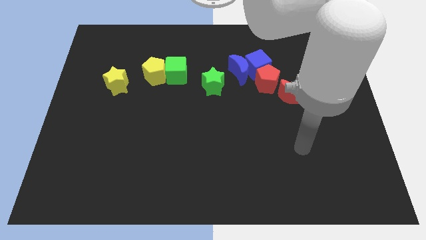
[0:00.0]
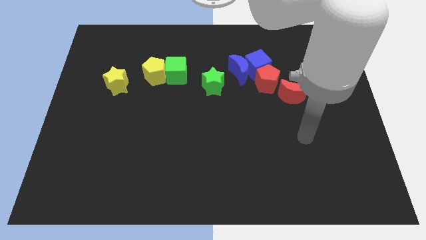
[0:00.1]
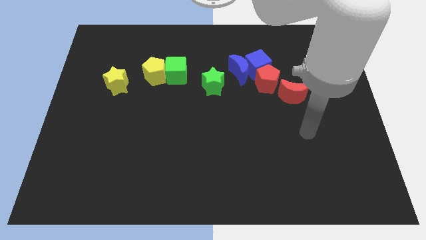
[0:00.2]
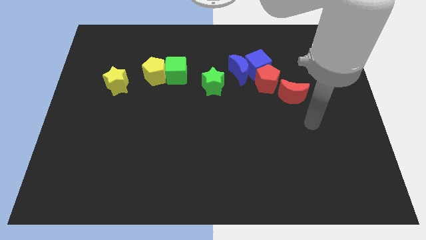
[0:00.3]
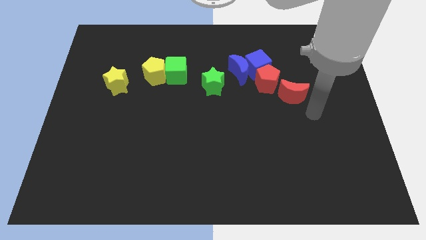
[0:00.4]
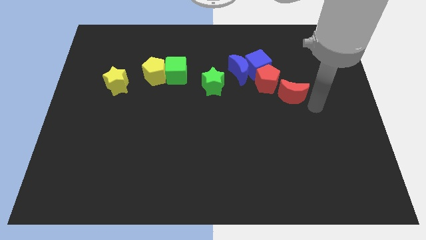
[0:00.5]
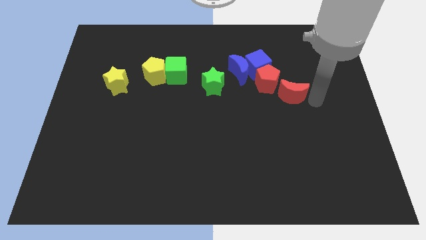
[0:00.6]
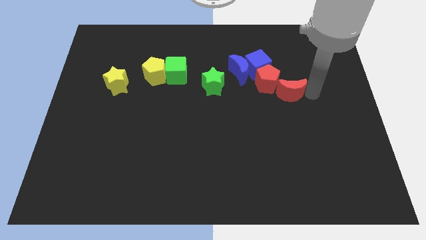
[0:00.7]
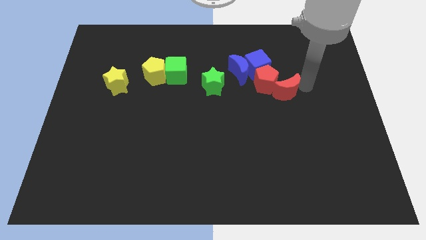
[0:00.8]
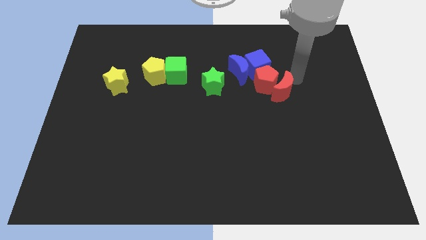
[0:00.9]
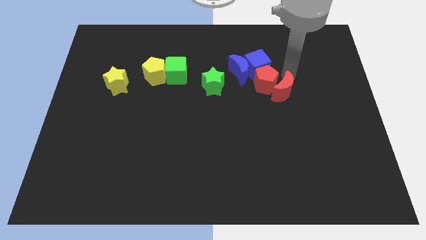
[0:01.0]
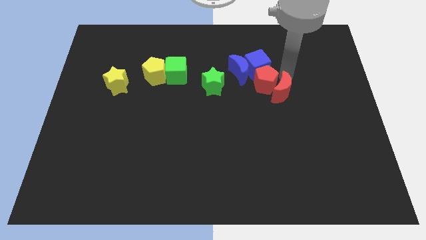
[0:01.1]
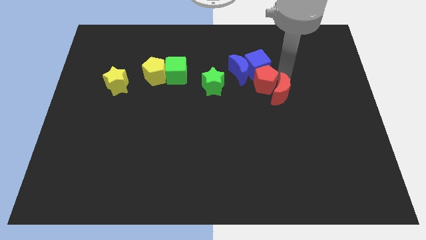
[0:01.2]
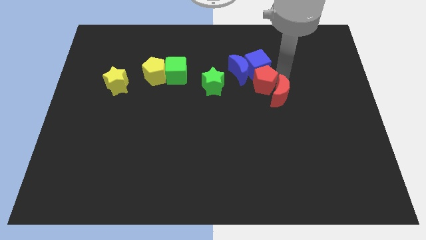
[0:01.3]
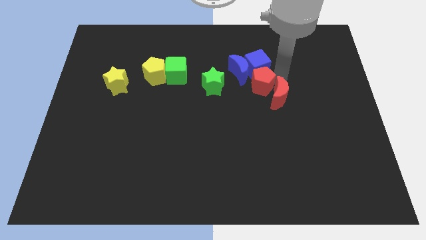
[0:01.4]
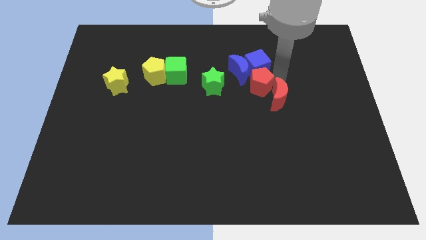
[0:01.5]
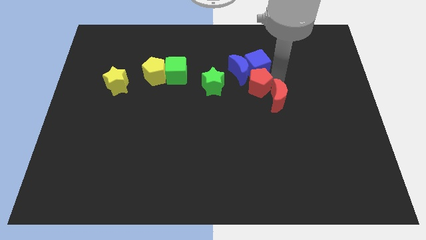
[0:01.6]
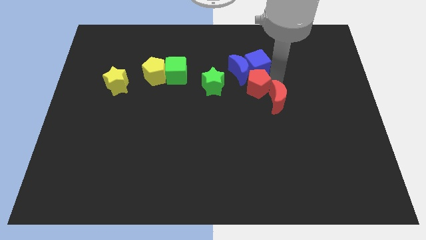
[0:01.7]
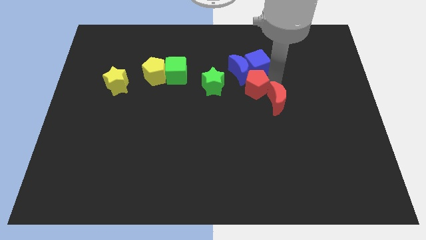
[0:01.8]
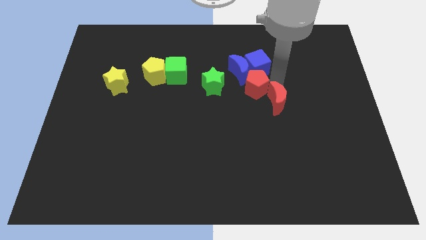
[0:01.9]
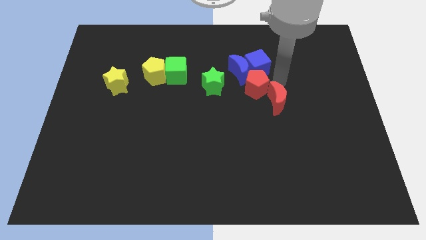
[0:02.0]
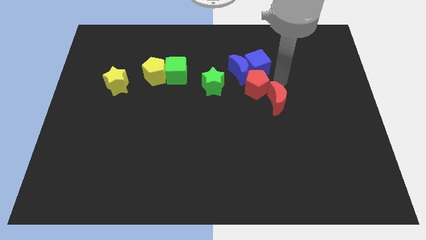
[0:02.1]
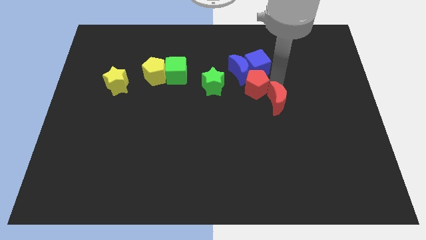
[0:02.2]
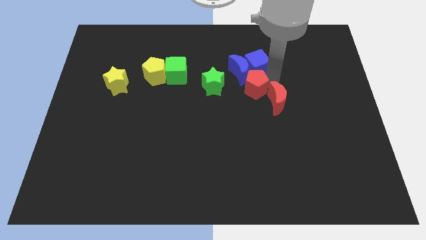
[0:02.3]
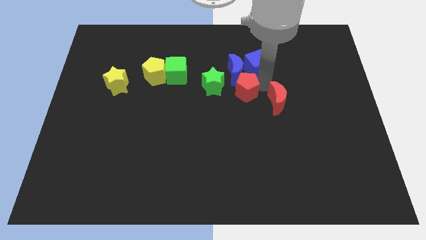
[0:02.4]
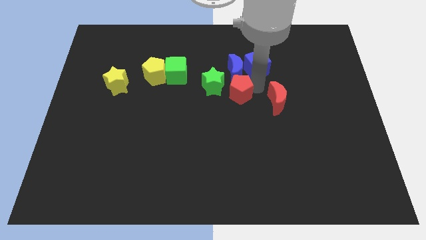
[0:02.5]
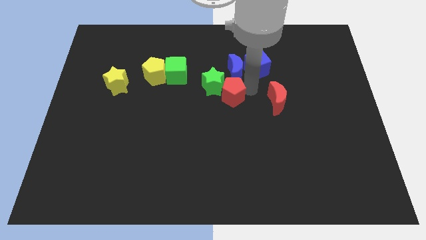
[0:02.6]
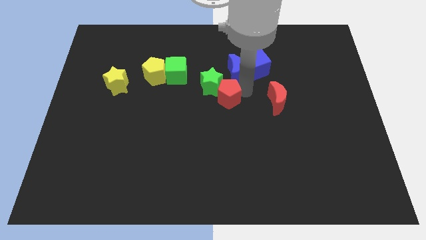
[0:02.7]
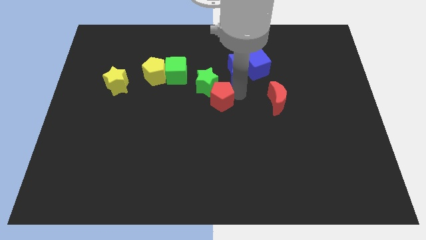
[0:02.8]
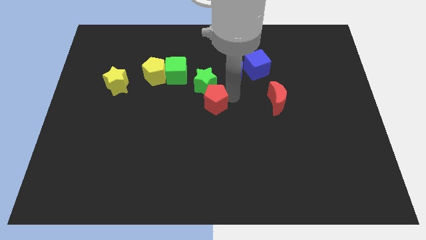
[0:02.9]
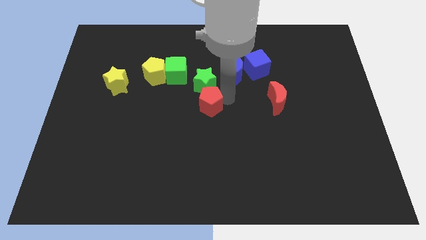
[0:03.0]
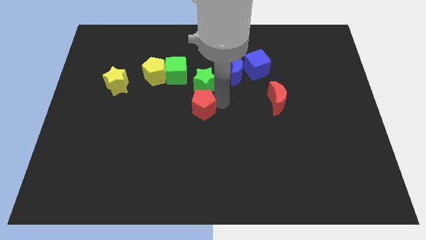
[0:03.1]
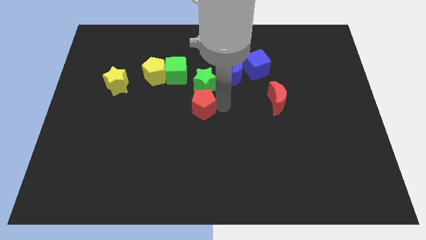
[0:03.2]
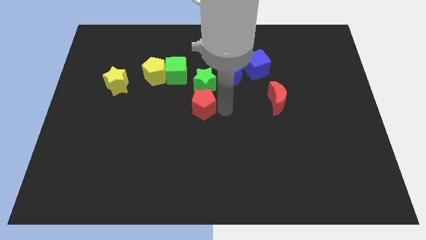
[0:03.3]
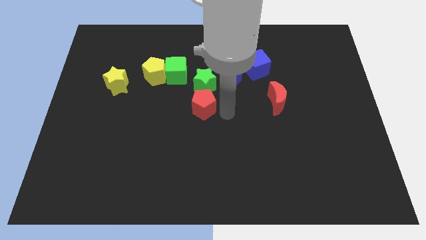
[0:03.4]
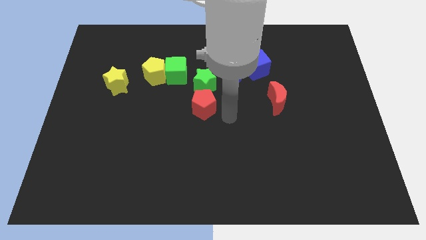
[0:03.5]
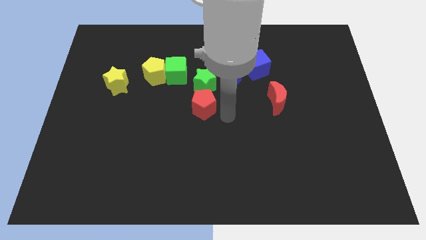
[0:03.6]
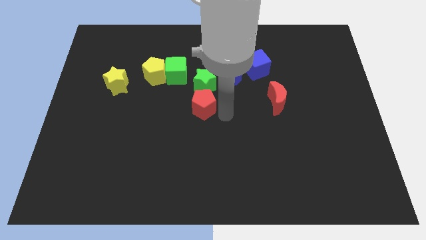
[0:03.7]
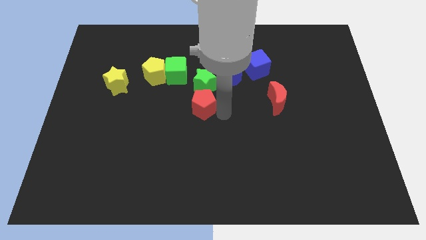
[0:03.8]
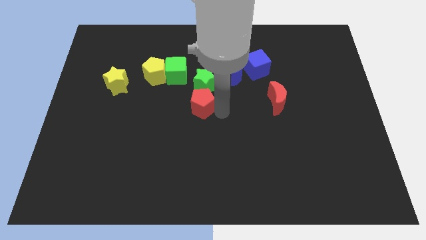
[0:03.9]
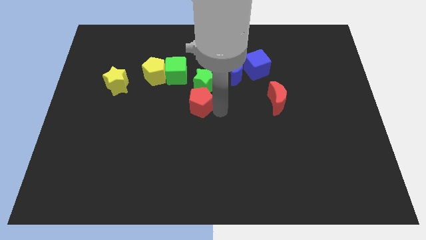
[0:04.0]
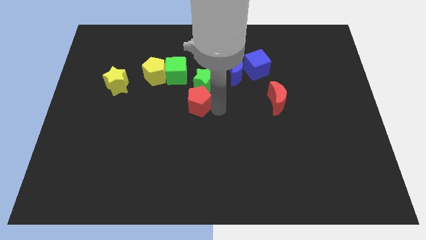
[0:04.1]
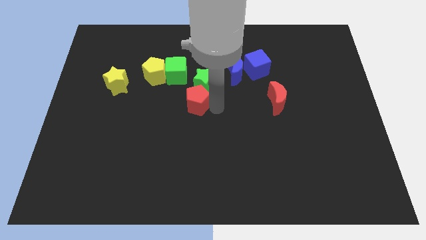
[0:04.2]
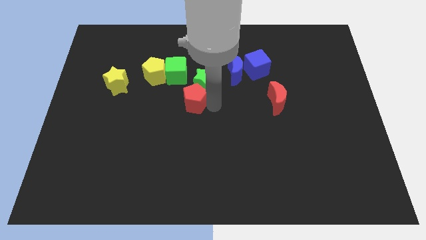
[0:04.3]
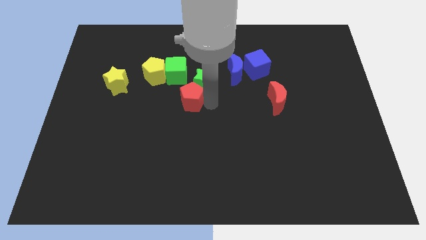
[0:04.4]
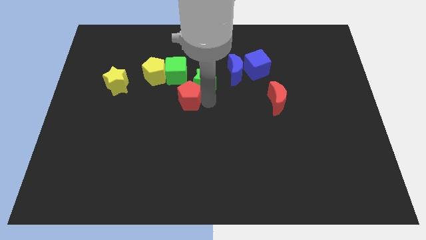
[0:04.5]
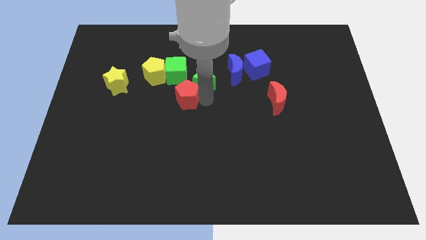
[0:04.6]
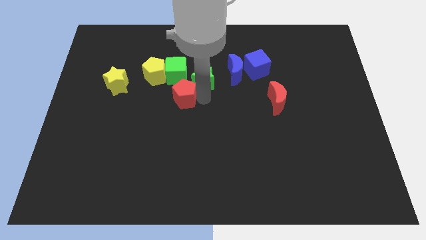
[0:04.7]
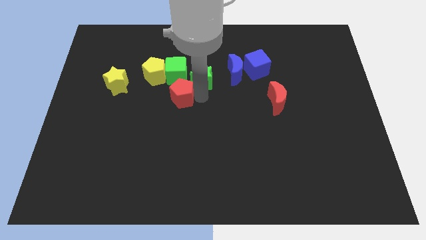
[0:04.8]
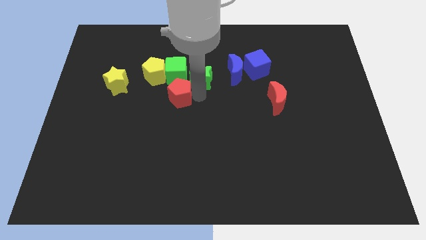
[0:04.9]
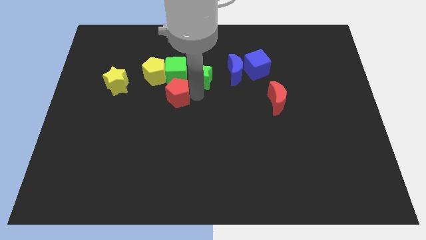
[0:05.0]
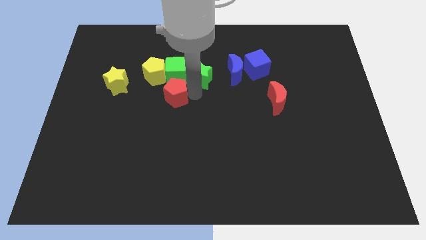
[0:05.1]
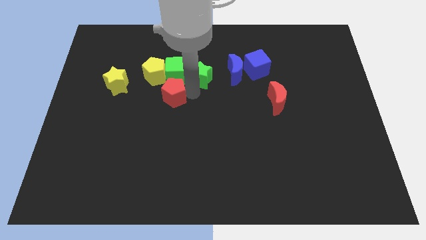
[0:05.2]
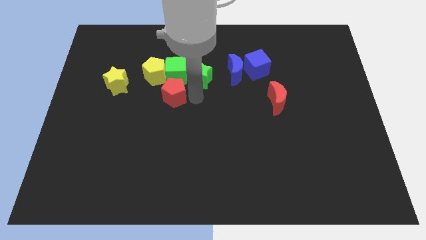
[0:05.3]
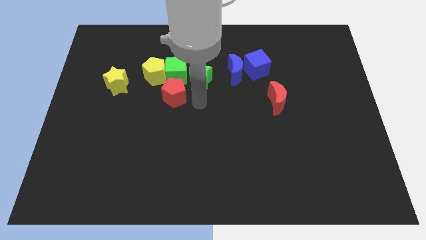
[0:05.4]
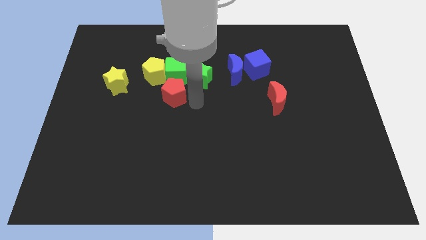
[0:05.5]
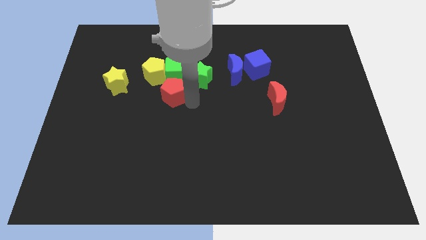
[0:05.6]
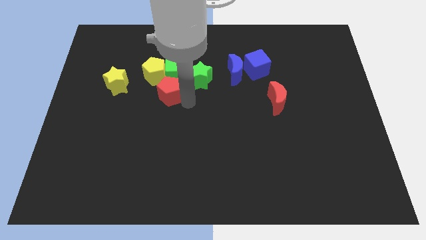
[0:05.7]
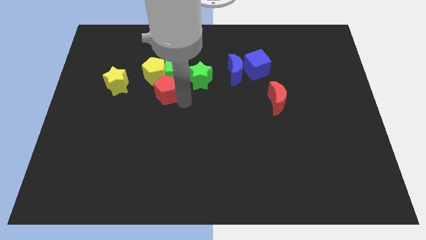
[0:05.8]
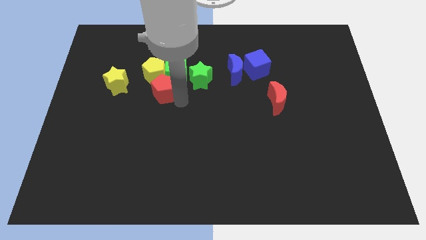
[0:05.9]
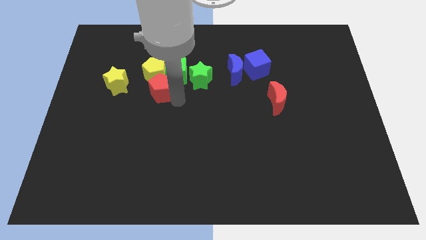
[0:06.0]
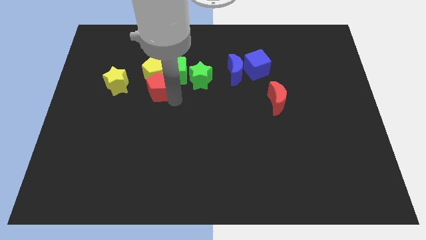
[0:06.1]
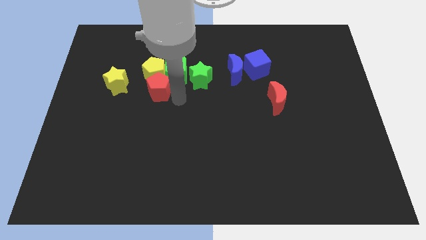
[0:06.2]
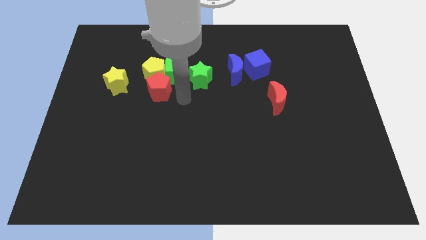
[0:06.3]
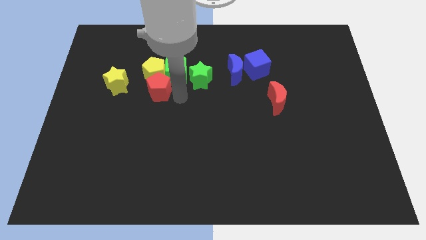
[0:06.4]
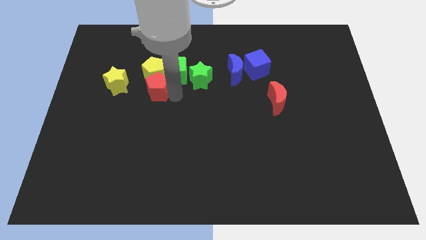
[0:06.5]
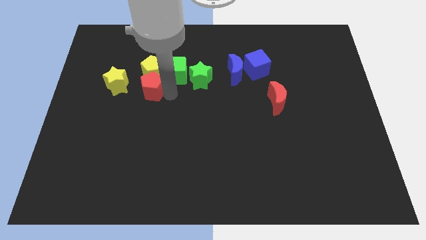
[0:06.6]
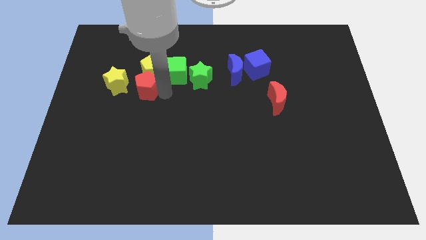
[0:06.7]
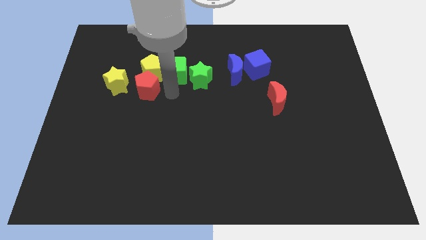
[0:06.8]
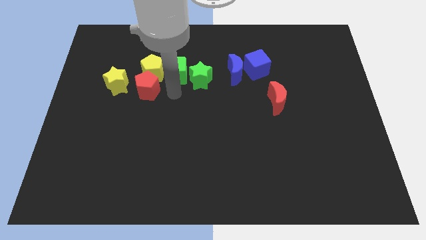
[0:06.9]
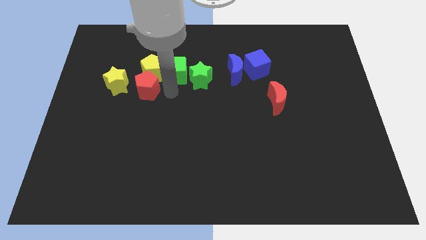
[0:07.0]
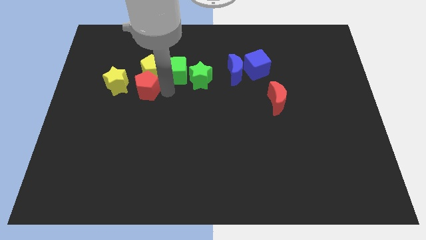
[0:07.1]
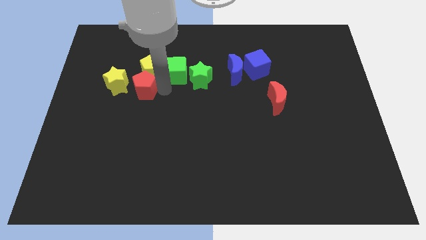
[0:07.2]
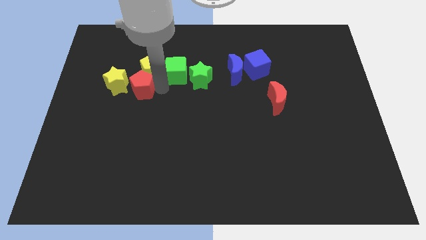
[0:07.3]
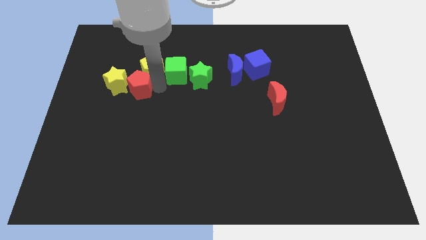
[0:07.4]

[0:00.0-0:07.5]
put the red pentagon next to the yellow star

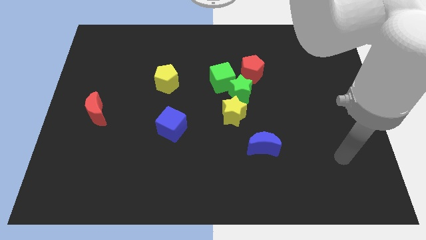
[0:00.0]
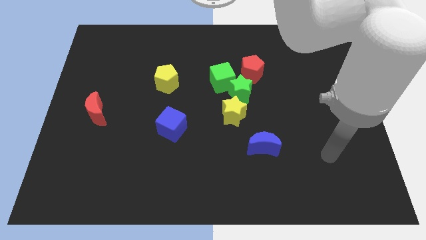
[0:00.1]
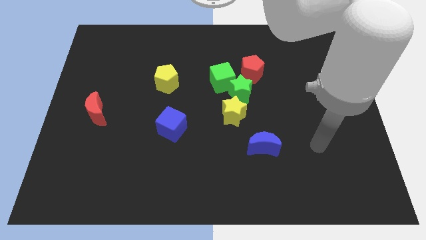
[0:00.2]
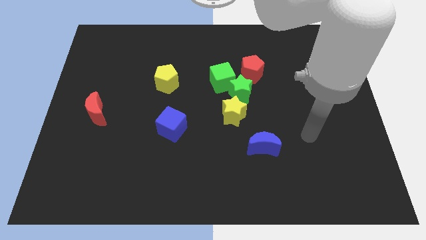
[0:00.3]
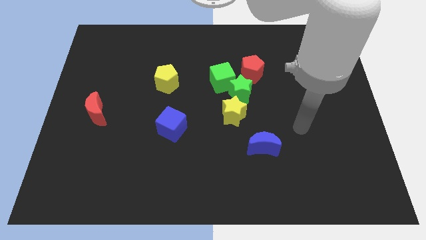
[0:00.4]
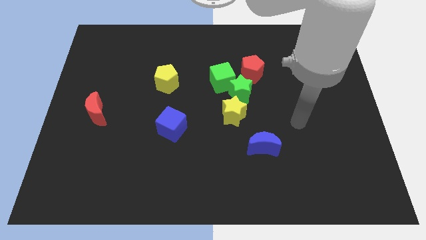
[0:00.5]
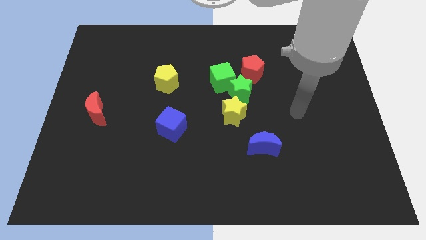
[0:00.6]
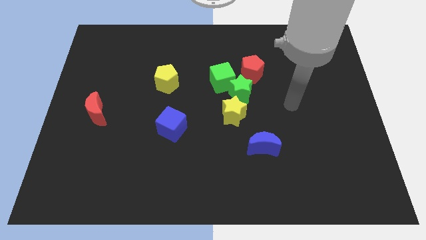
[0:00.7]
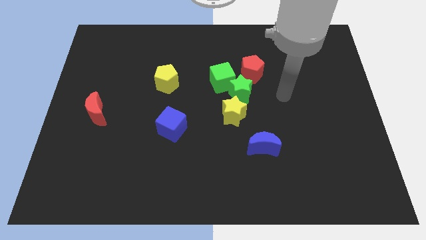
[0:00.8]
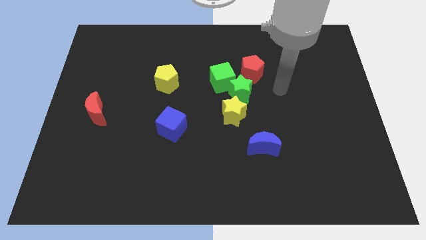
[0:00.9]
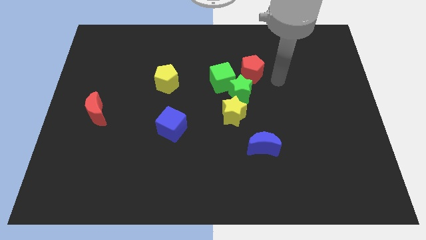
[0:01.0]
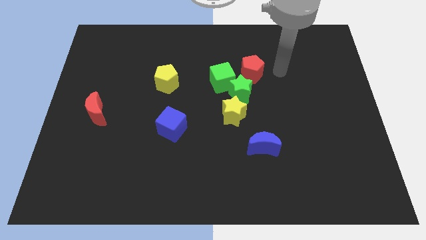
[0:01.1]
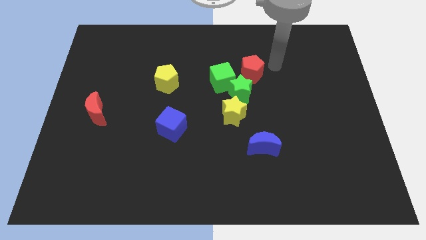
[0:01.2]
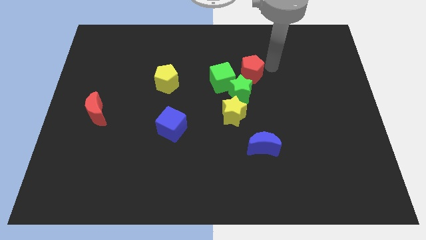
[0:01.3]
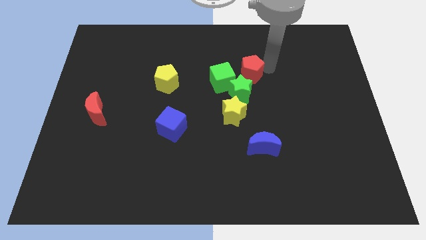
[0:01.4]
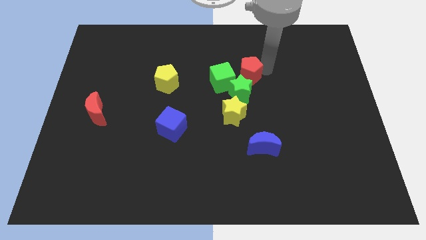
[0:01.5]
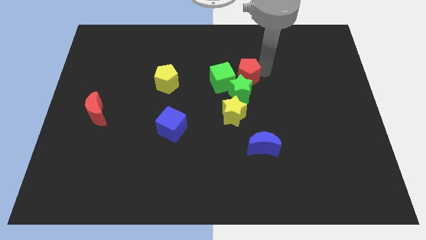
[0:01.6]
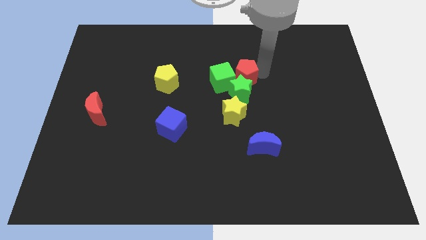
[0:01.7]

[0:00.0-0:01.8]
push the red pentagon close to the green cube
